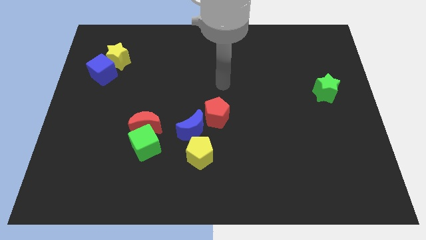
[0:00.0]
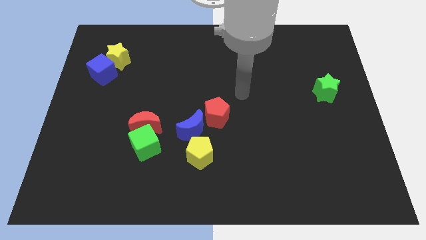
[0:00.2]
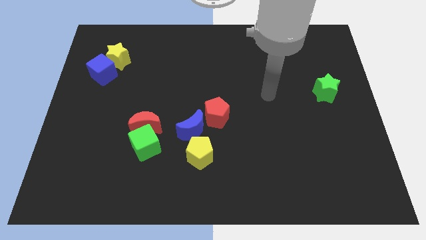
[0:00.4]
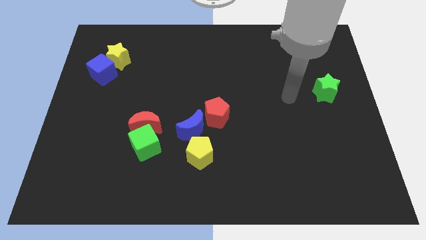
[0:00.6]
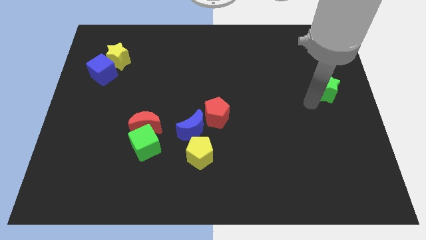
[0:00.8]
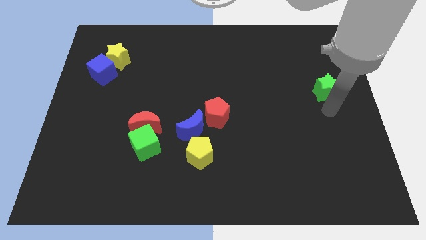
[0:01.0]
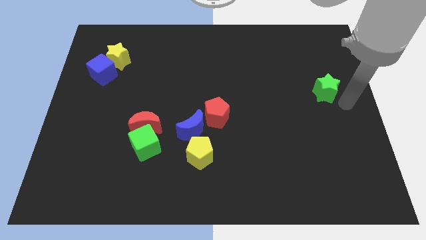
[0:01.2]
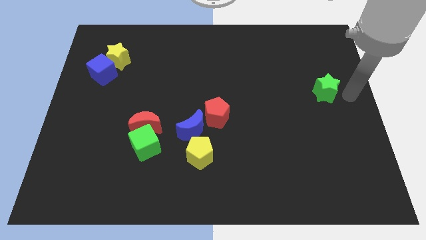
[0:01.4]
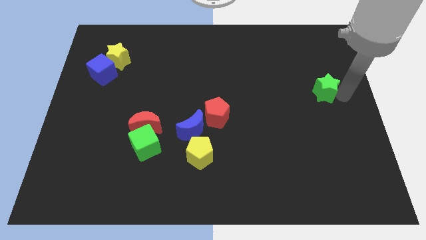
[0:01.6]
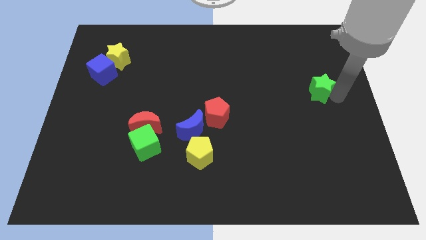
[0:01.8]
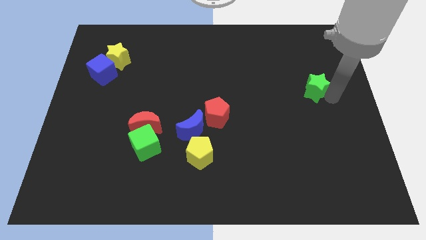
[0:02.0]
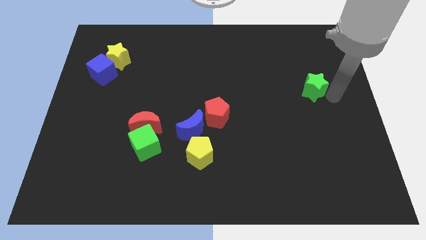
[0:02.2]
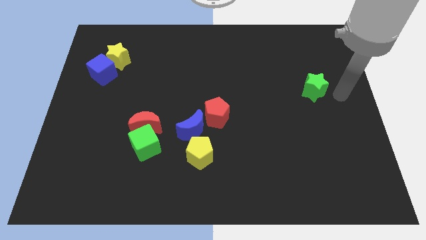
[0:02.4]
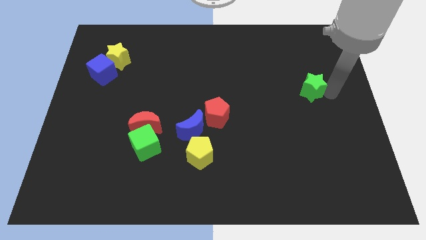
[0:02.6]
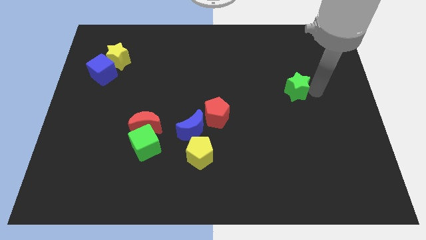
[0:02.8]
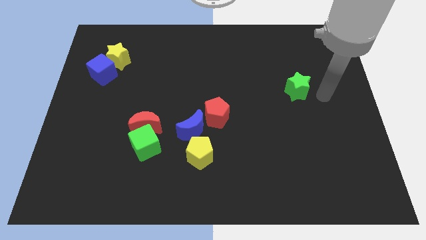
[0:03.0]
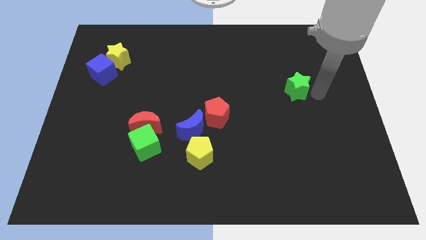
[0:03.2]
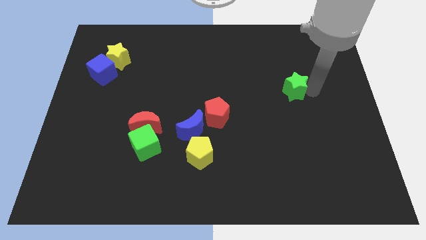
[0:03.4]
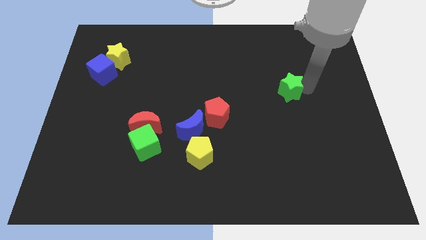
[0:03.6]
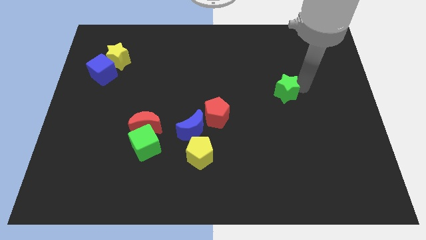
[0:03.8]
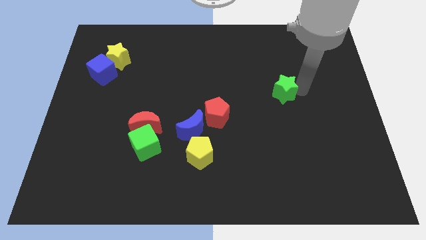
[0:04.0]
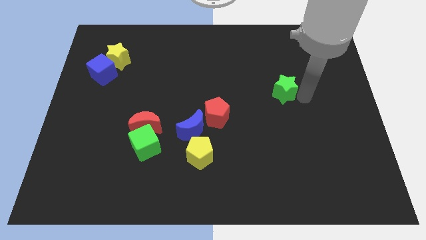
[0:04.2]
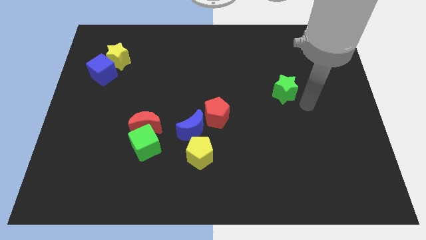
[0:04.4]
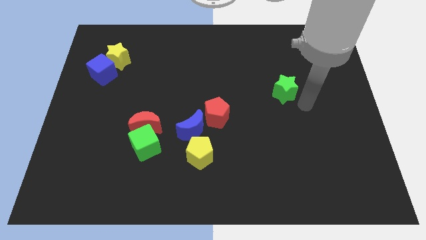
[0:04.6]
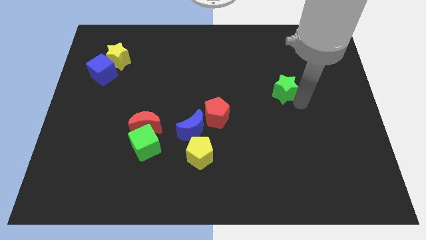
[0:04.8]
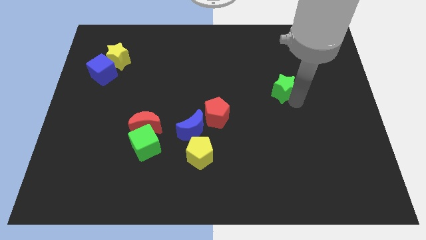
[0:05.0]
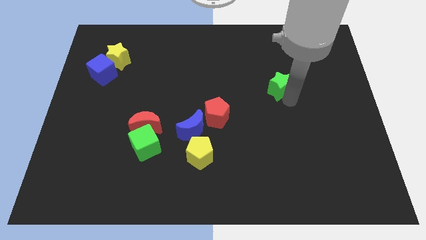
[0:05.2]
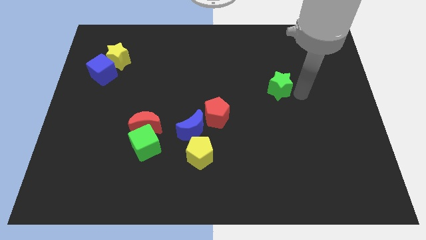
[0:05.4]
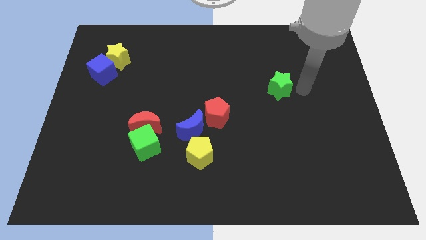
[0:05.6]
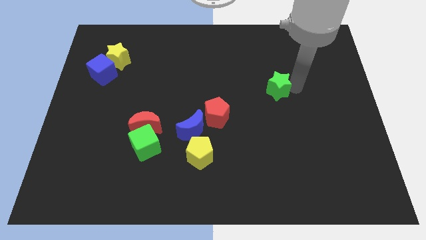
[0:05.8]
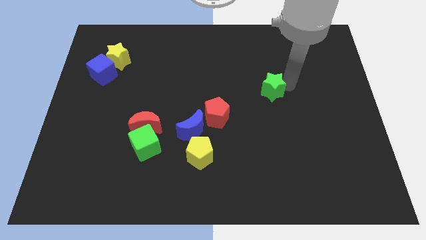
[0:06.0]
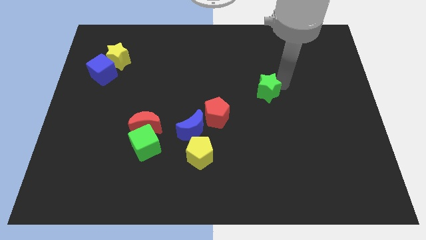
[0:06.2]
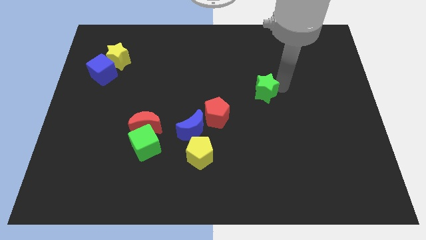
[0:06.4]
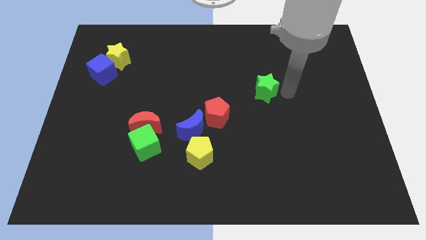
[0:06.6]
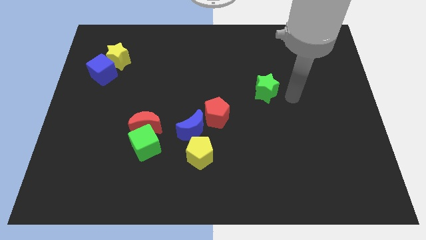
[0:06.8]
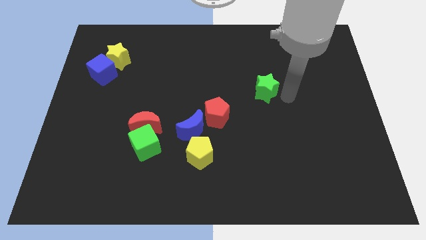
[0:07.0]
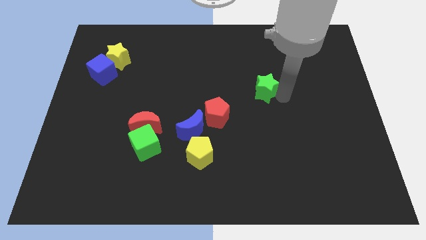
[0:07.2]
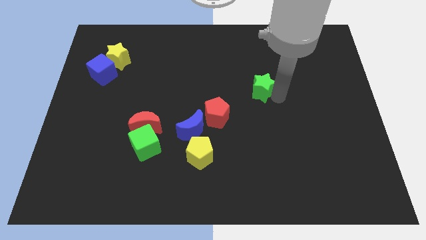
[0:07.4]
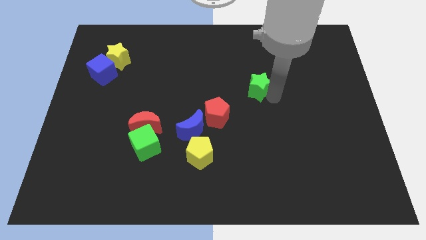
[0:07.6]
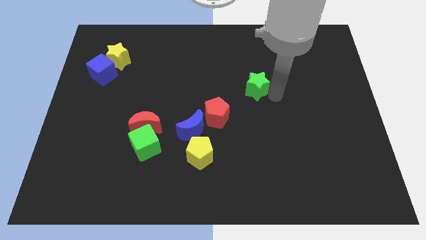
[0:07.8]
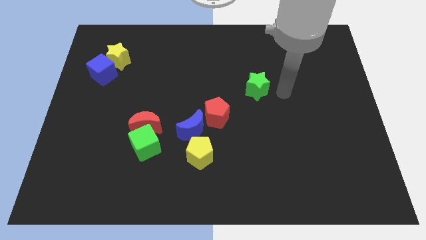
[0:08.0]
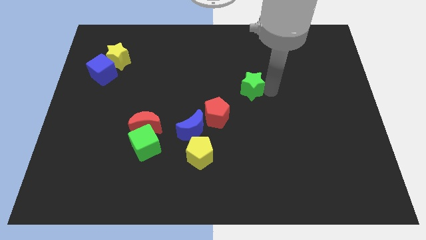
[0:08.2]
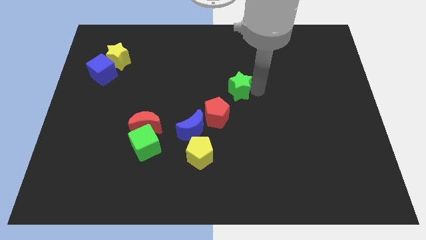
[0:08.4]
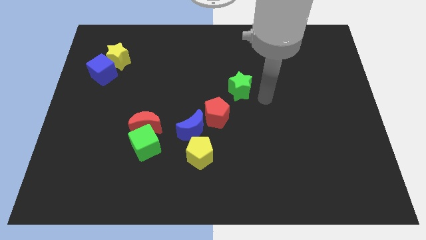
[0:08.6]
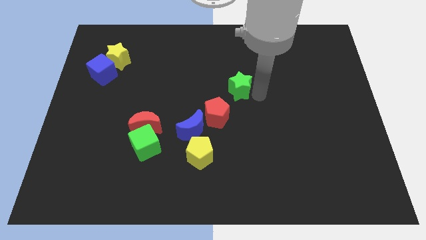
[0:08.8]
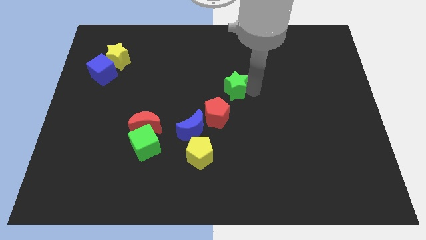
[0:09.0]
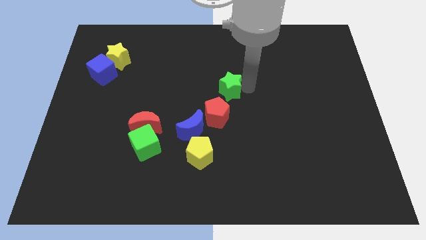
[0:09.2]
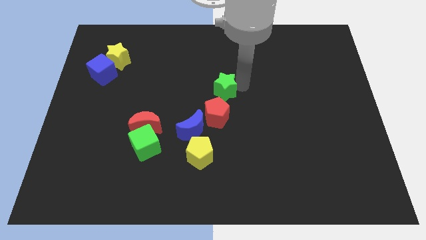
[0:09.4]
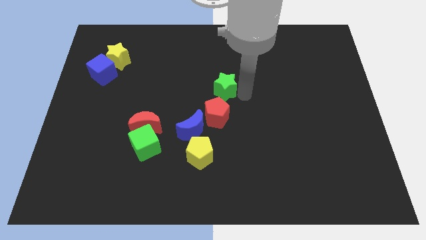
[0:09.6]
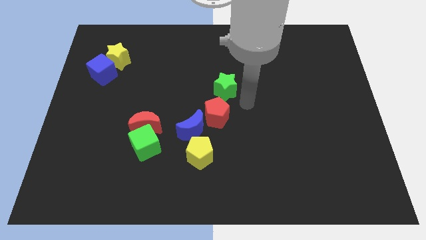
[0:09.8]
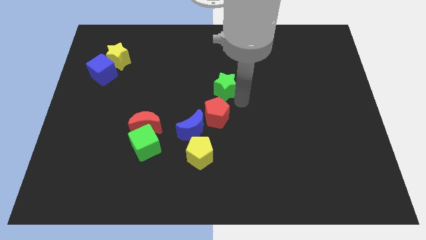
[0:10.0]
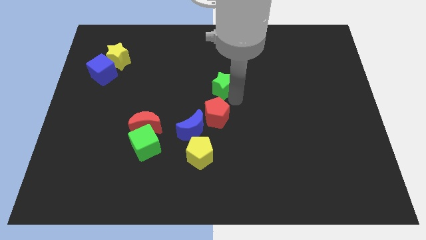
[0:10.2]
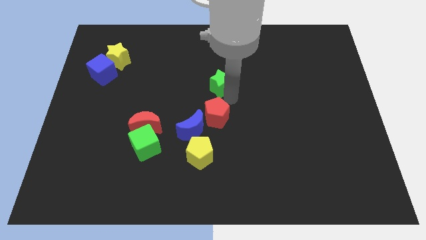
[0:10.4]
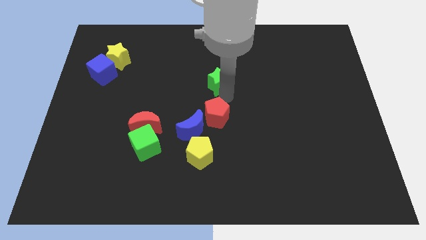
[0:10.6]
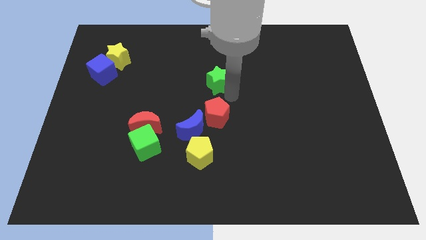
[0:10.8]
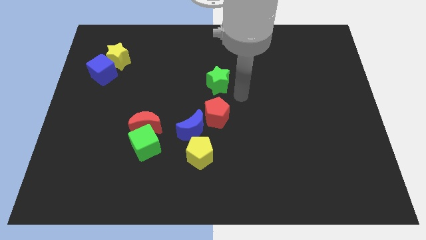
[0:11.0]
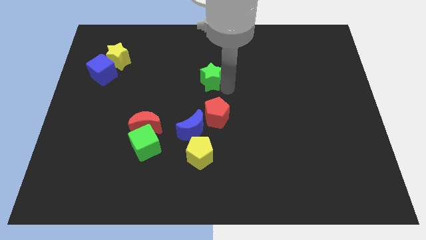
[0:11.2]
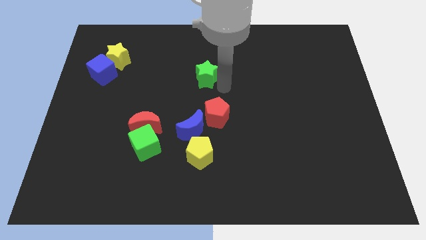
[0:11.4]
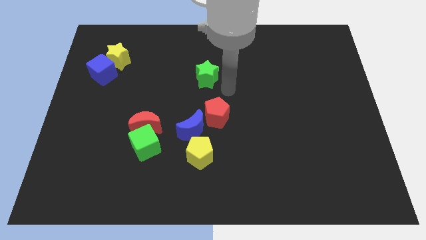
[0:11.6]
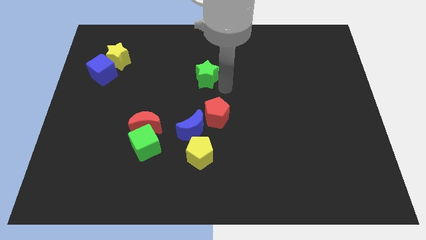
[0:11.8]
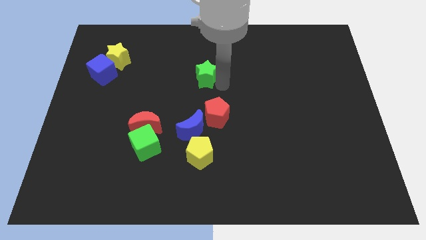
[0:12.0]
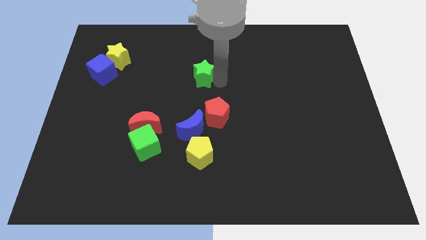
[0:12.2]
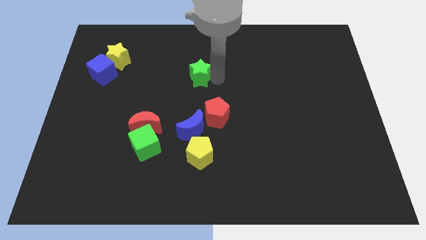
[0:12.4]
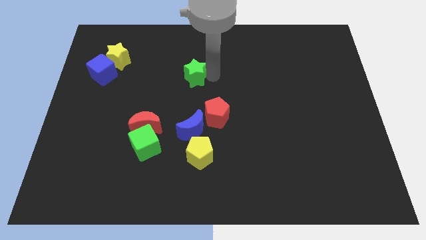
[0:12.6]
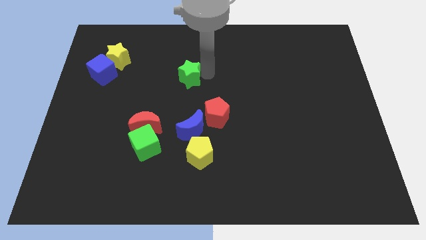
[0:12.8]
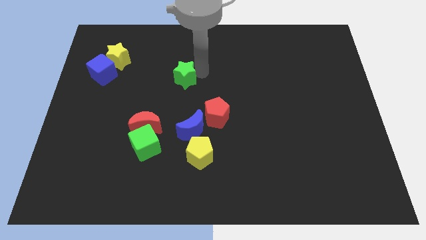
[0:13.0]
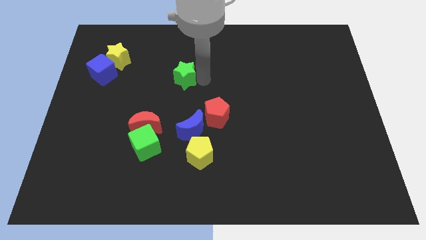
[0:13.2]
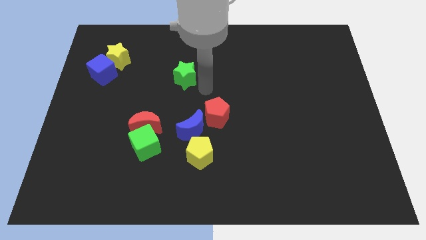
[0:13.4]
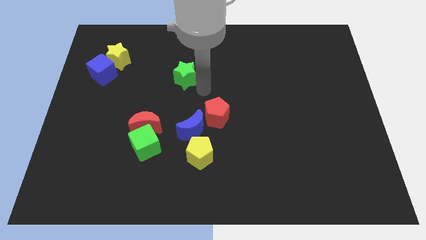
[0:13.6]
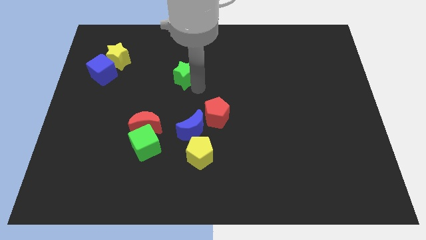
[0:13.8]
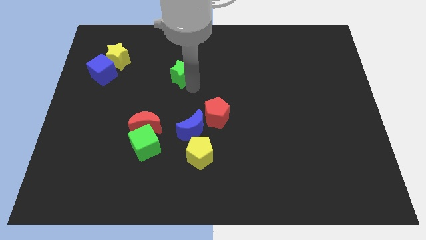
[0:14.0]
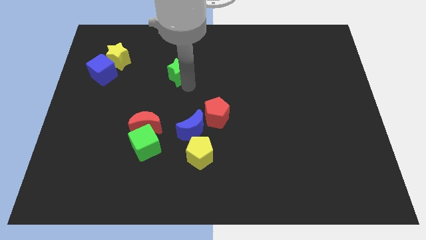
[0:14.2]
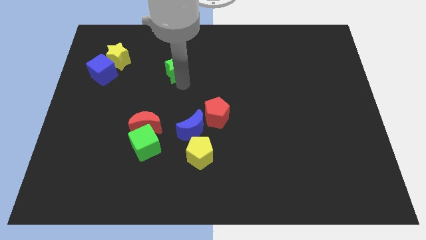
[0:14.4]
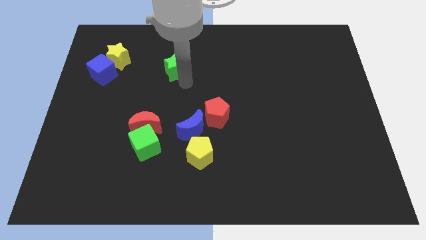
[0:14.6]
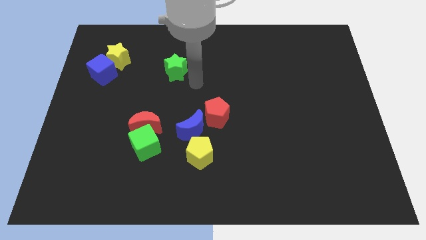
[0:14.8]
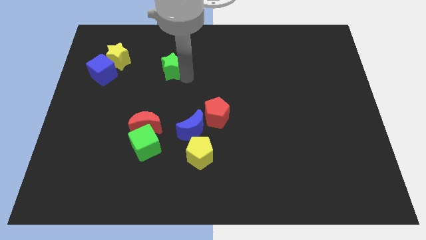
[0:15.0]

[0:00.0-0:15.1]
put the green star right of the yellow star

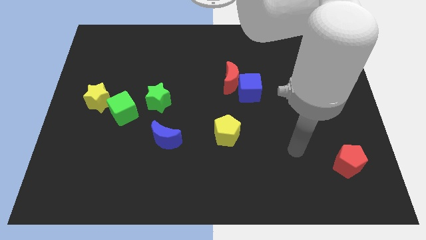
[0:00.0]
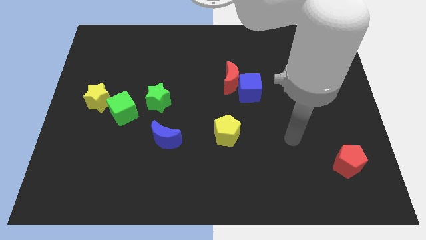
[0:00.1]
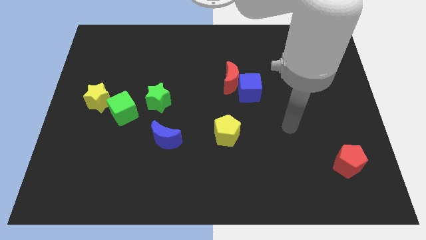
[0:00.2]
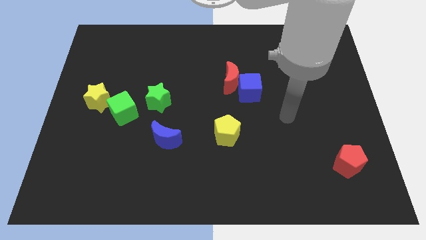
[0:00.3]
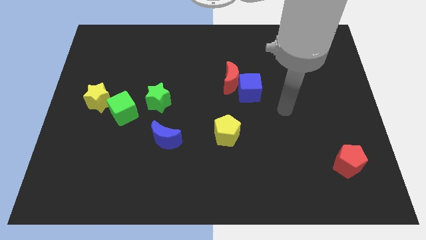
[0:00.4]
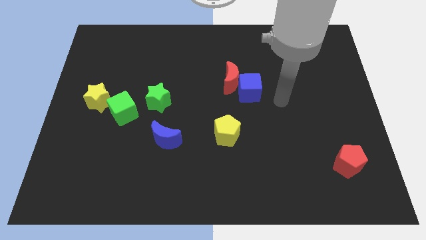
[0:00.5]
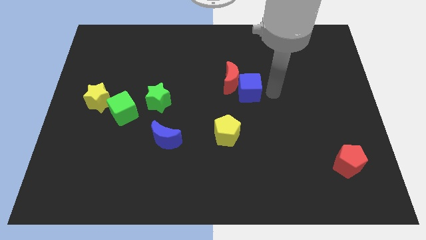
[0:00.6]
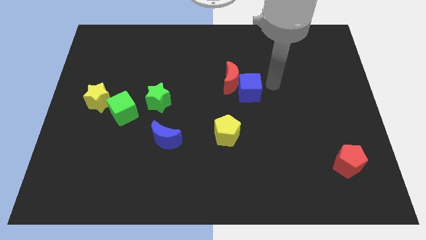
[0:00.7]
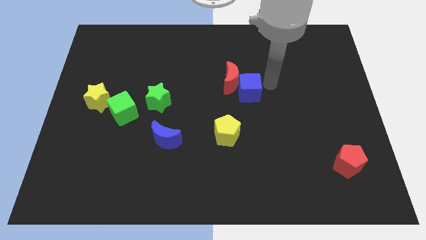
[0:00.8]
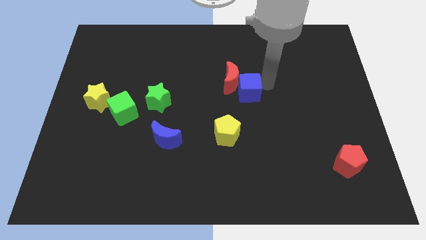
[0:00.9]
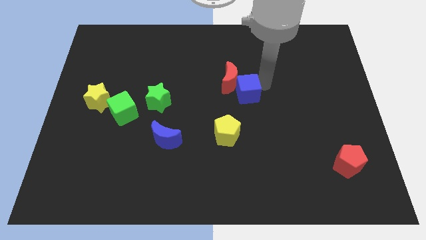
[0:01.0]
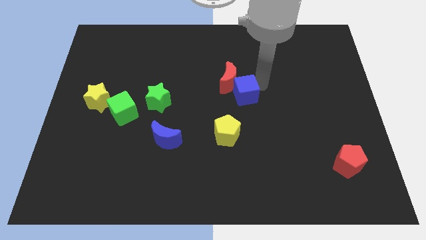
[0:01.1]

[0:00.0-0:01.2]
move the blue cube above the yellow pentagon
